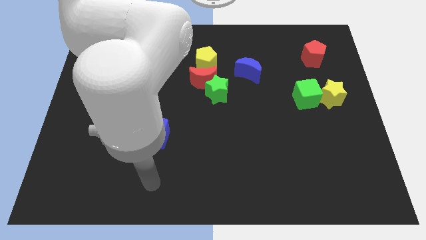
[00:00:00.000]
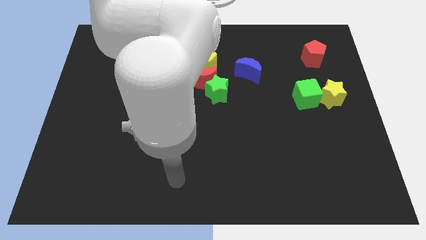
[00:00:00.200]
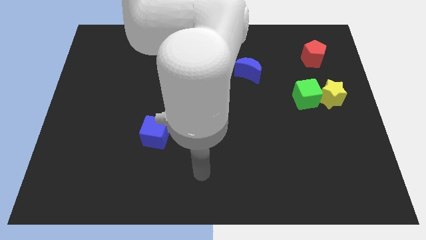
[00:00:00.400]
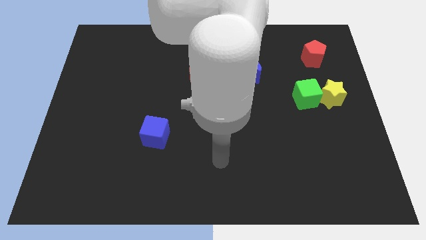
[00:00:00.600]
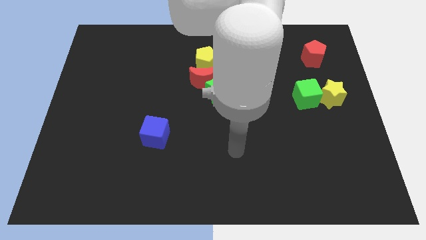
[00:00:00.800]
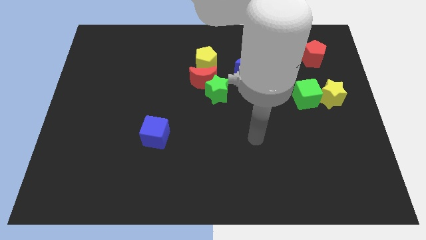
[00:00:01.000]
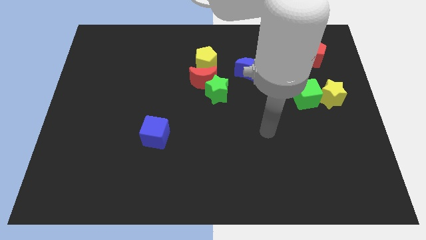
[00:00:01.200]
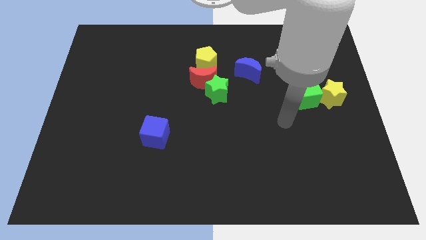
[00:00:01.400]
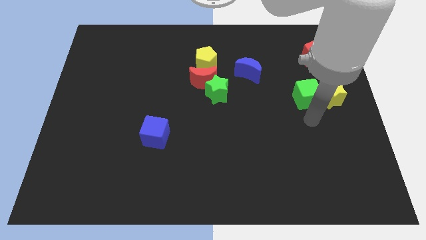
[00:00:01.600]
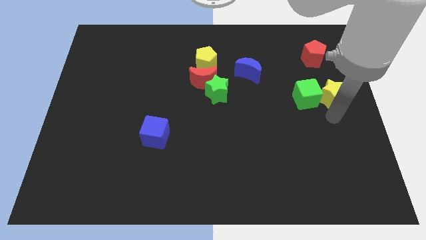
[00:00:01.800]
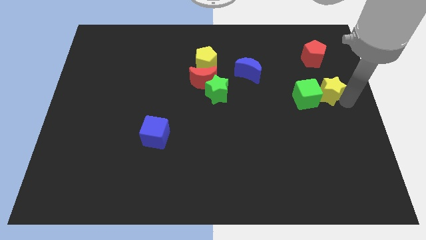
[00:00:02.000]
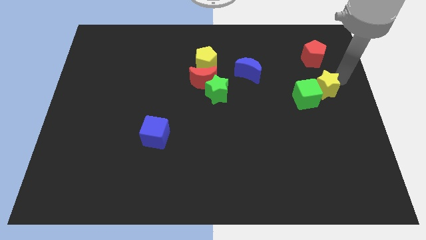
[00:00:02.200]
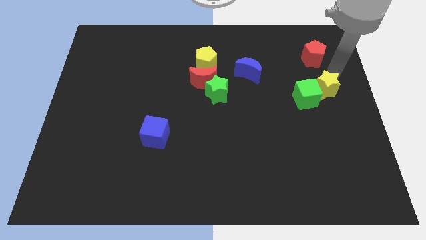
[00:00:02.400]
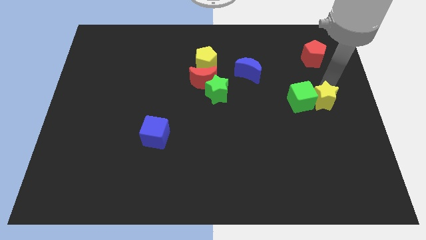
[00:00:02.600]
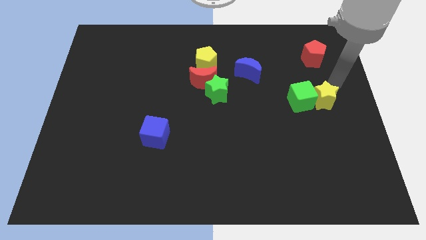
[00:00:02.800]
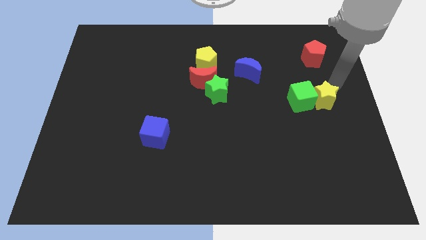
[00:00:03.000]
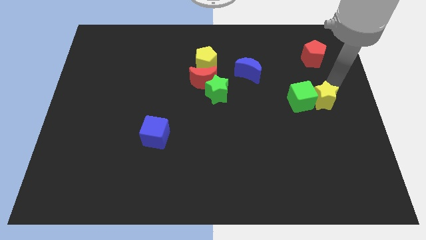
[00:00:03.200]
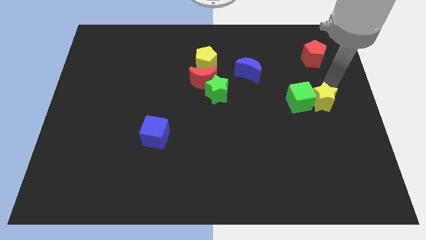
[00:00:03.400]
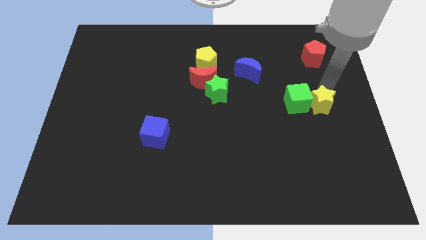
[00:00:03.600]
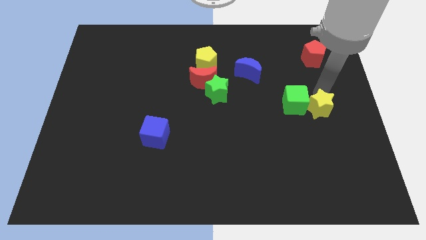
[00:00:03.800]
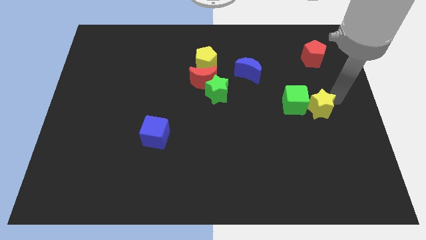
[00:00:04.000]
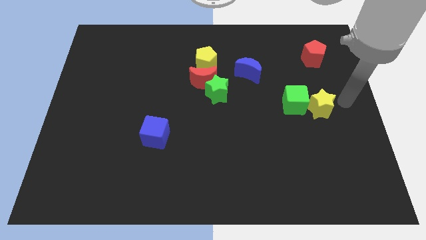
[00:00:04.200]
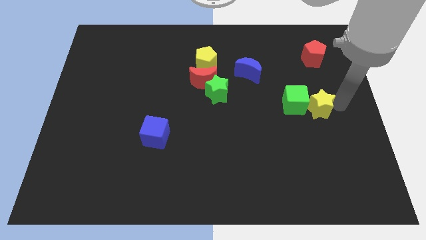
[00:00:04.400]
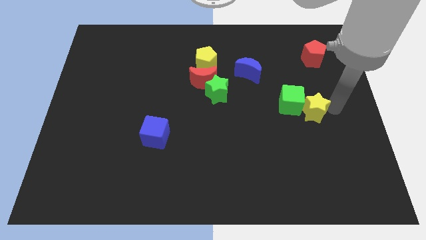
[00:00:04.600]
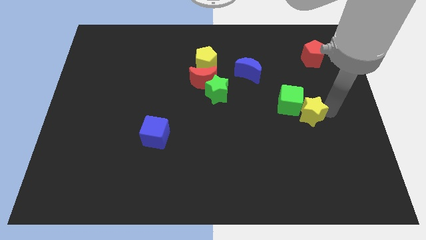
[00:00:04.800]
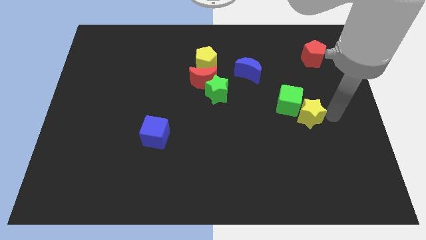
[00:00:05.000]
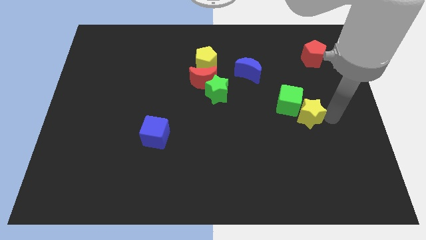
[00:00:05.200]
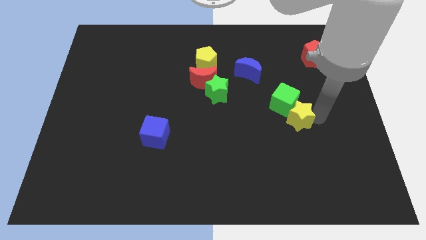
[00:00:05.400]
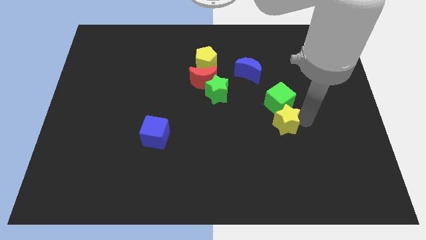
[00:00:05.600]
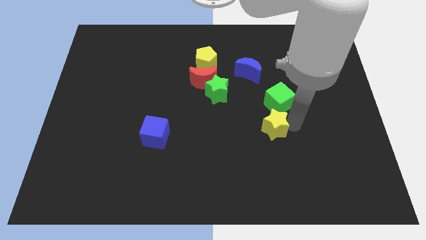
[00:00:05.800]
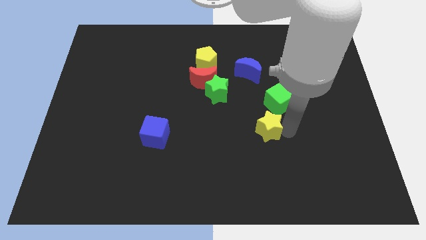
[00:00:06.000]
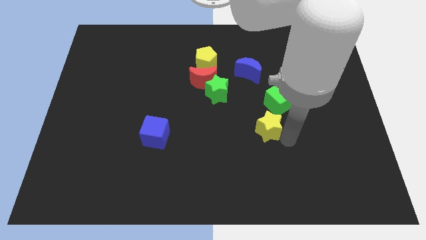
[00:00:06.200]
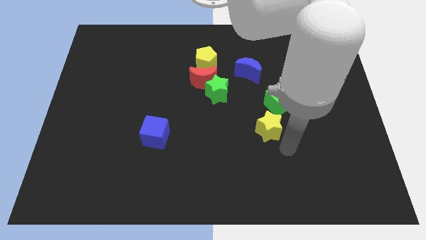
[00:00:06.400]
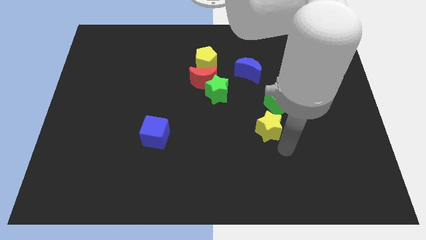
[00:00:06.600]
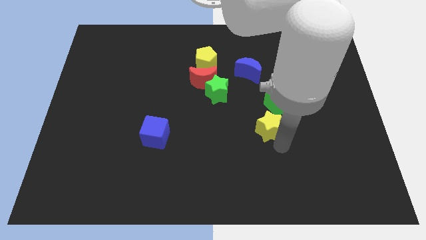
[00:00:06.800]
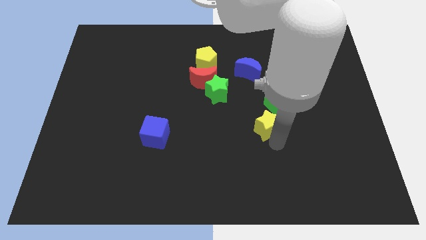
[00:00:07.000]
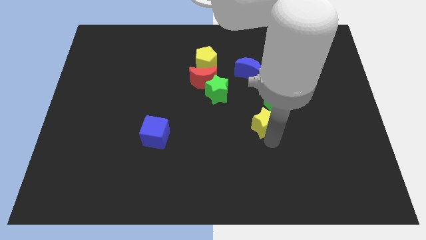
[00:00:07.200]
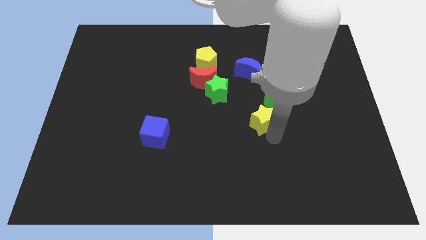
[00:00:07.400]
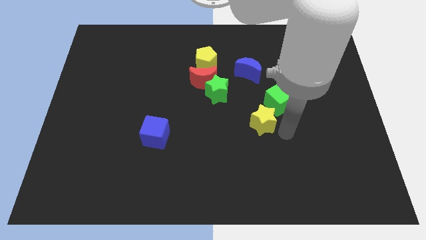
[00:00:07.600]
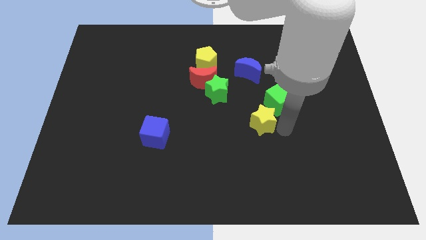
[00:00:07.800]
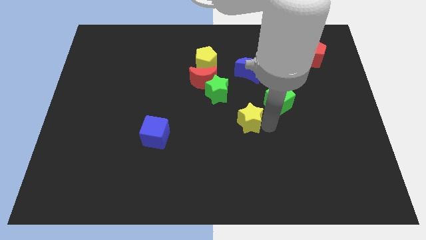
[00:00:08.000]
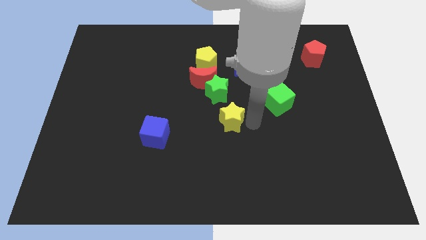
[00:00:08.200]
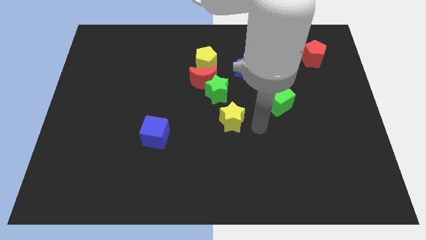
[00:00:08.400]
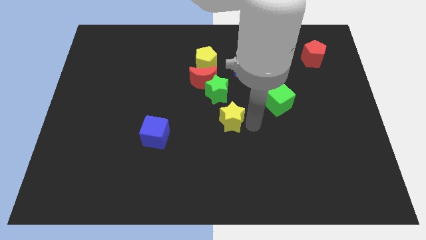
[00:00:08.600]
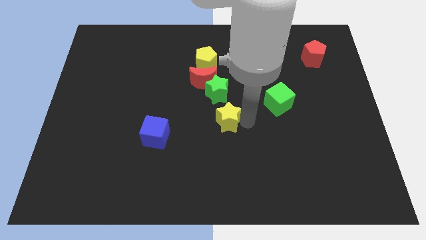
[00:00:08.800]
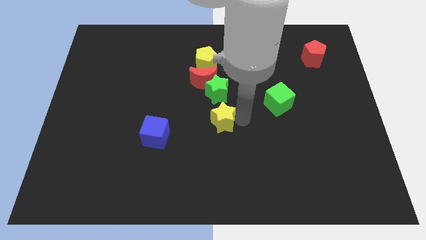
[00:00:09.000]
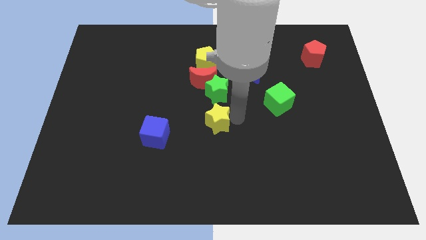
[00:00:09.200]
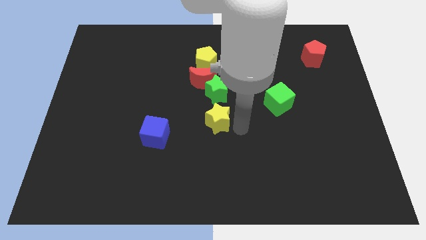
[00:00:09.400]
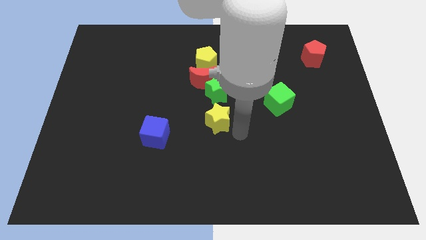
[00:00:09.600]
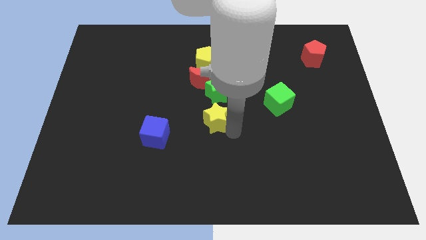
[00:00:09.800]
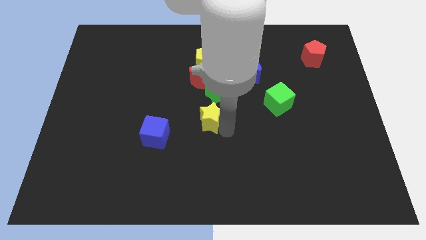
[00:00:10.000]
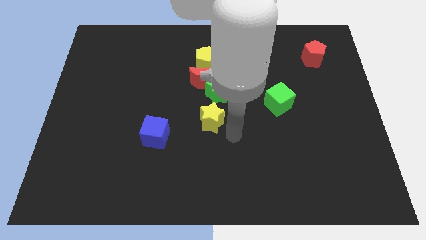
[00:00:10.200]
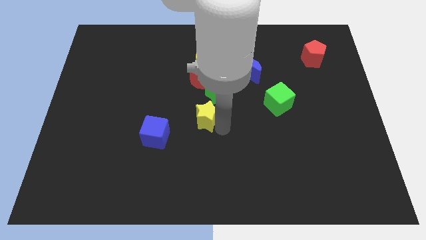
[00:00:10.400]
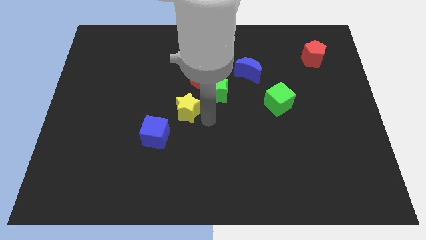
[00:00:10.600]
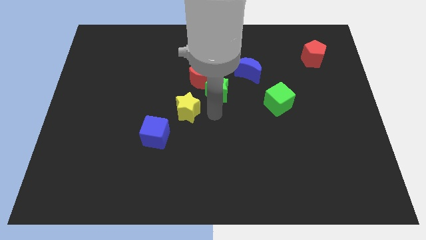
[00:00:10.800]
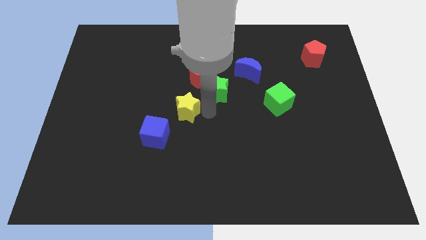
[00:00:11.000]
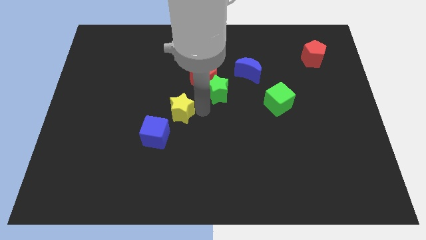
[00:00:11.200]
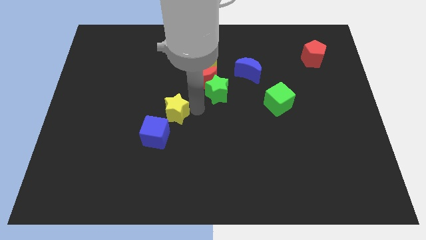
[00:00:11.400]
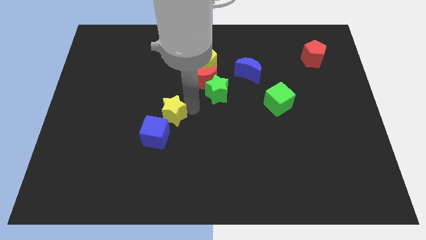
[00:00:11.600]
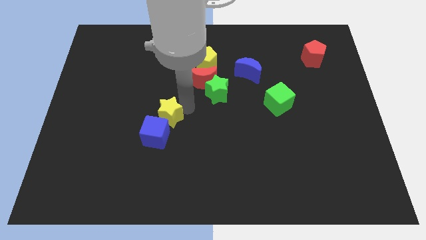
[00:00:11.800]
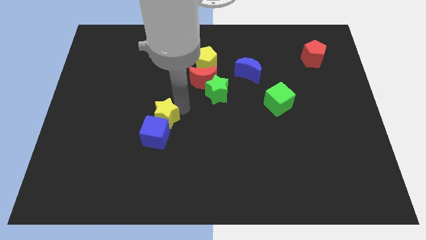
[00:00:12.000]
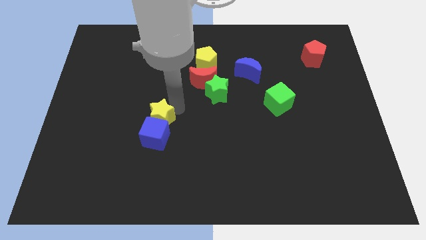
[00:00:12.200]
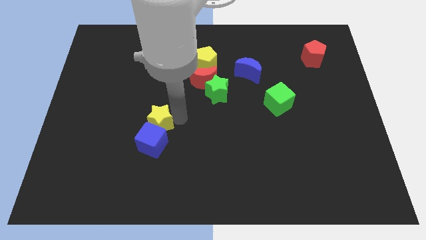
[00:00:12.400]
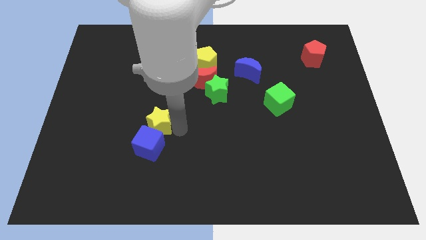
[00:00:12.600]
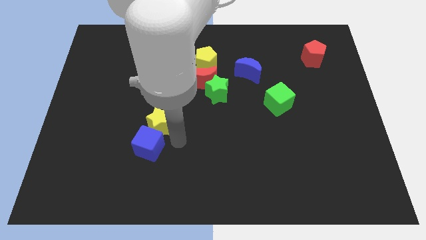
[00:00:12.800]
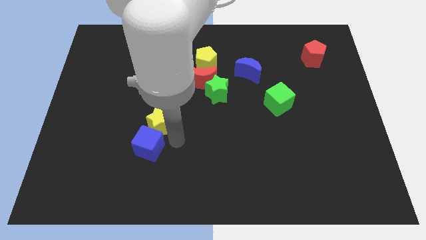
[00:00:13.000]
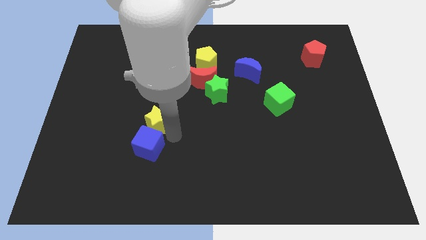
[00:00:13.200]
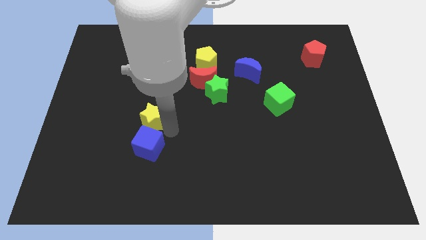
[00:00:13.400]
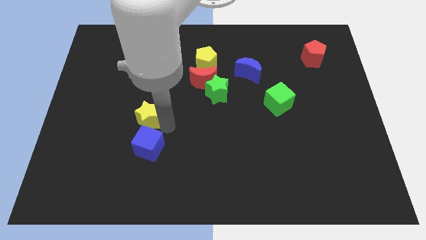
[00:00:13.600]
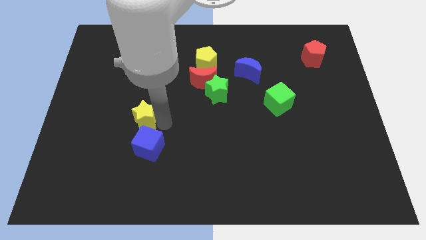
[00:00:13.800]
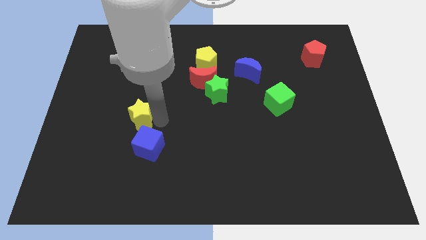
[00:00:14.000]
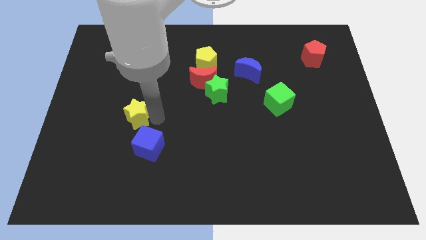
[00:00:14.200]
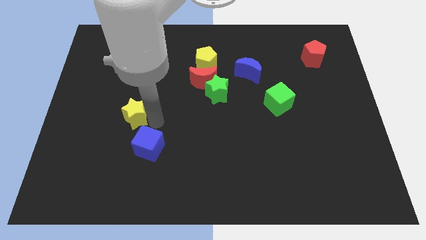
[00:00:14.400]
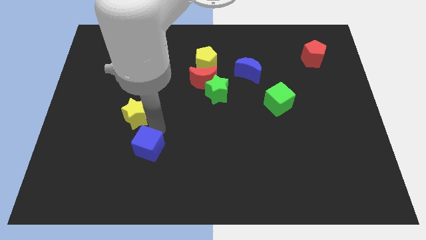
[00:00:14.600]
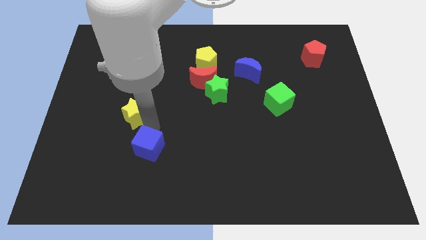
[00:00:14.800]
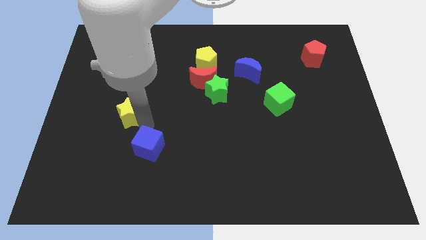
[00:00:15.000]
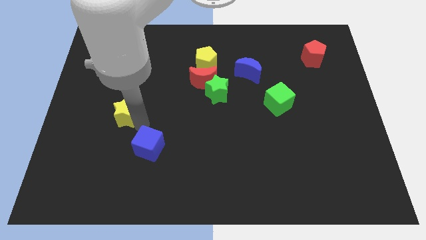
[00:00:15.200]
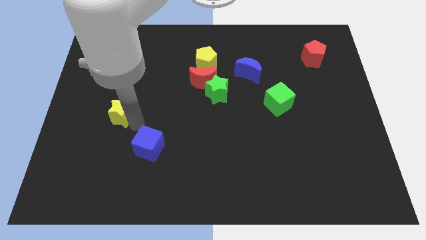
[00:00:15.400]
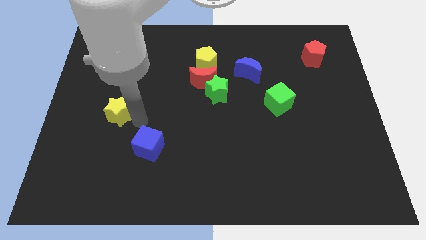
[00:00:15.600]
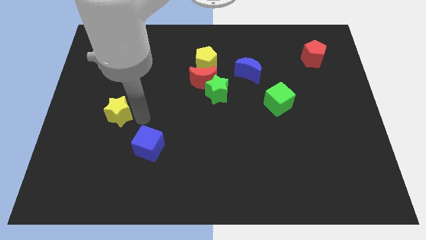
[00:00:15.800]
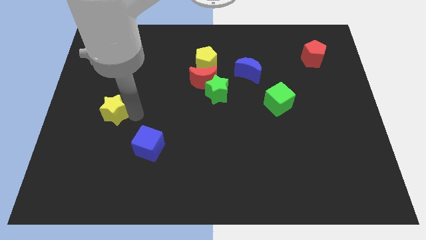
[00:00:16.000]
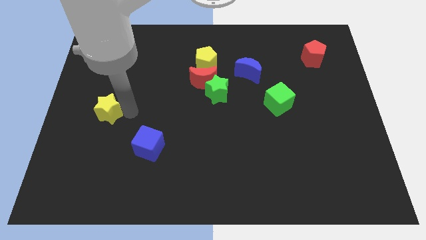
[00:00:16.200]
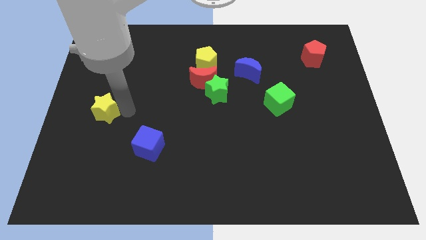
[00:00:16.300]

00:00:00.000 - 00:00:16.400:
push the yellow star to the left side of the board
